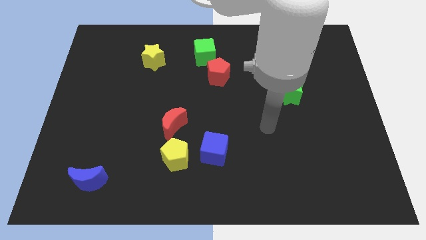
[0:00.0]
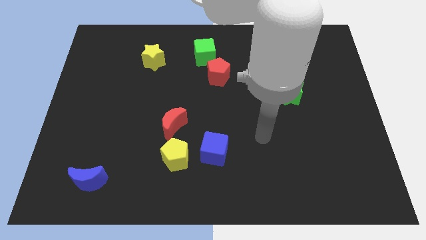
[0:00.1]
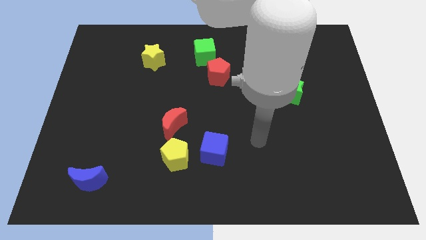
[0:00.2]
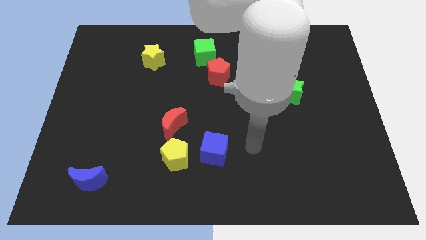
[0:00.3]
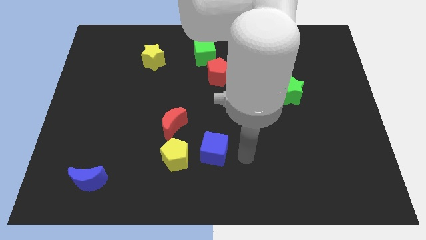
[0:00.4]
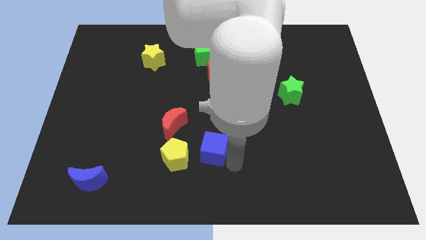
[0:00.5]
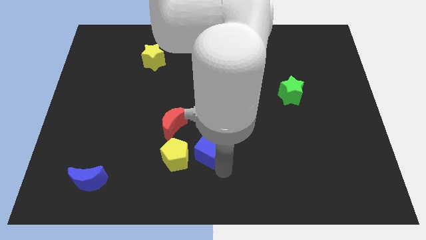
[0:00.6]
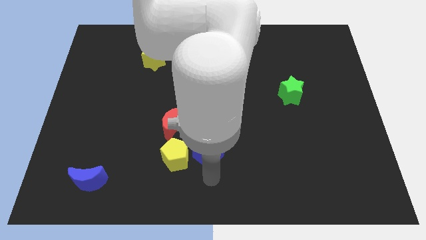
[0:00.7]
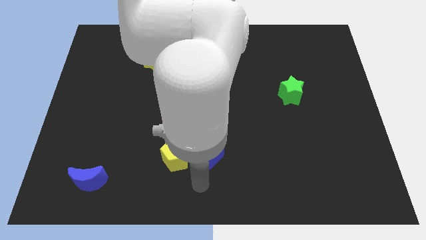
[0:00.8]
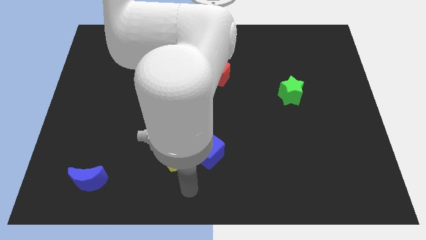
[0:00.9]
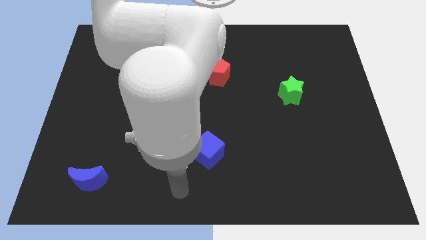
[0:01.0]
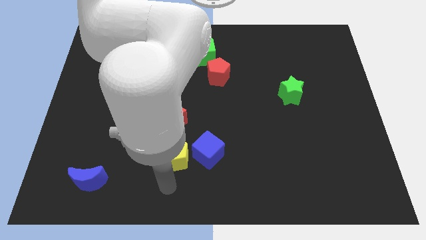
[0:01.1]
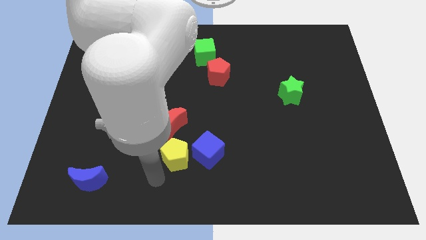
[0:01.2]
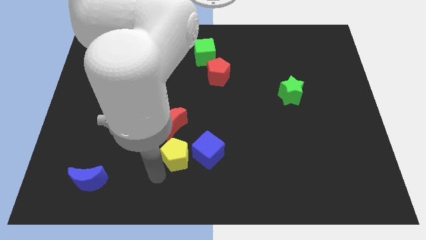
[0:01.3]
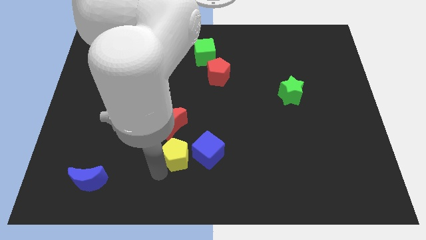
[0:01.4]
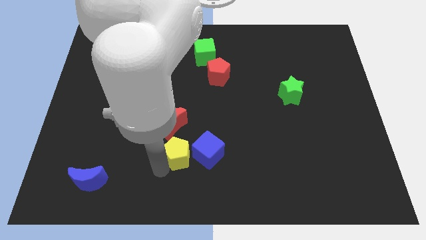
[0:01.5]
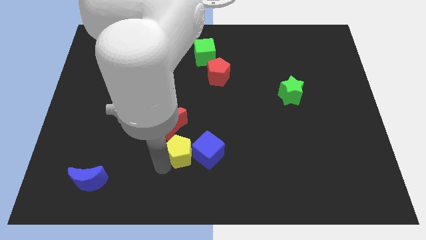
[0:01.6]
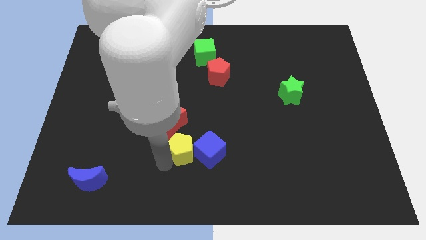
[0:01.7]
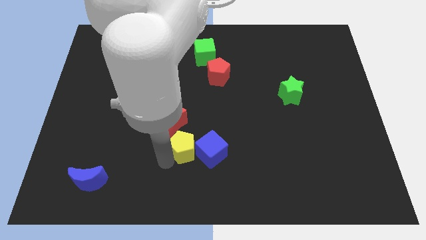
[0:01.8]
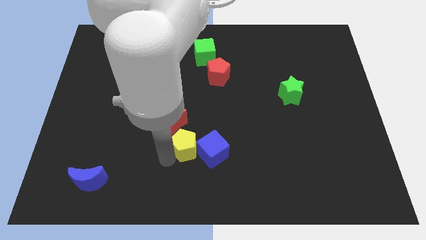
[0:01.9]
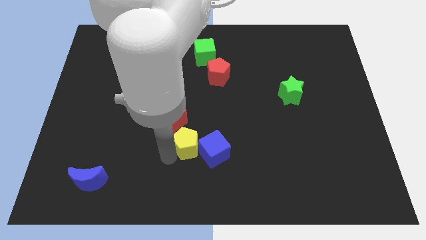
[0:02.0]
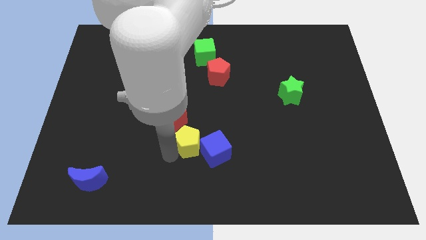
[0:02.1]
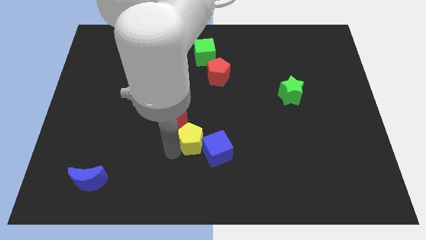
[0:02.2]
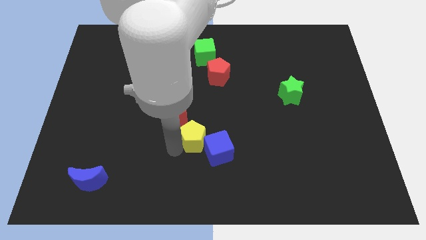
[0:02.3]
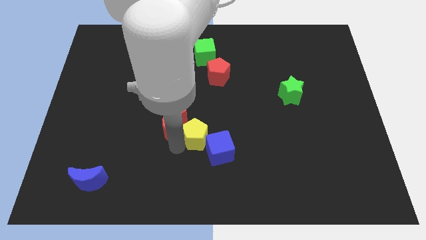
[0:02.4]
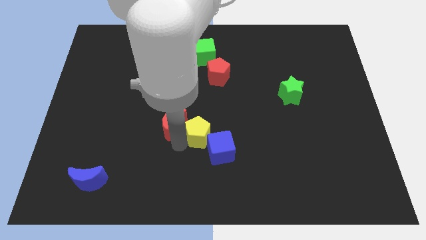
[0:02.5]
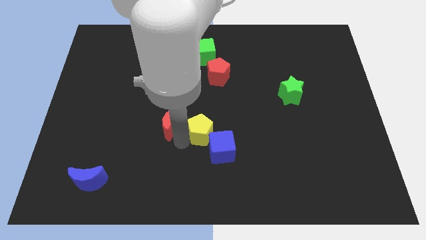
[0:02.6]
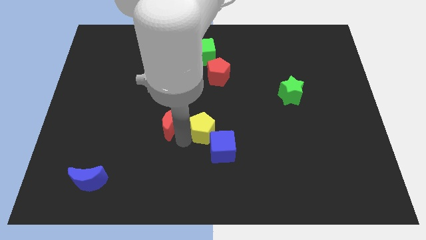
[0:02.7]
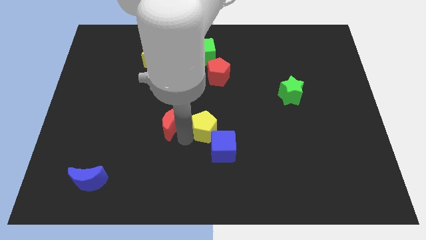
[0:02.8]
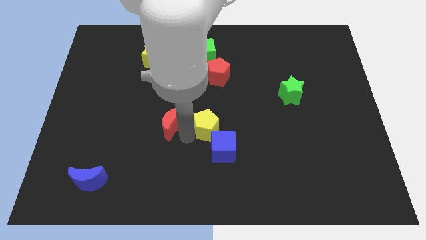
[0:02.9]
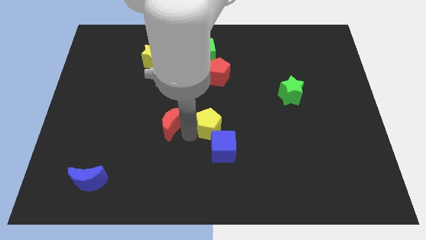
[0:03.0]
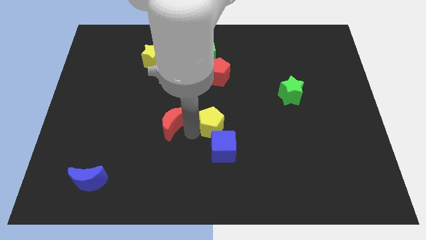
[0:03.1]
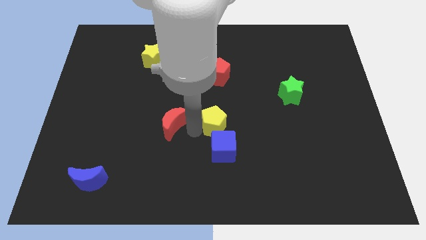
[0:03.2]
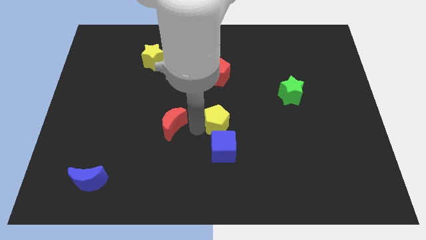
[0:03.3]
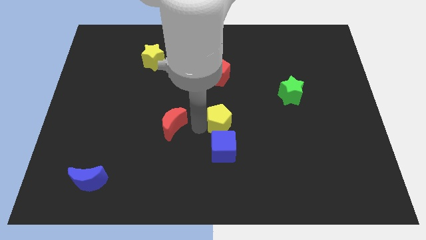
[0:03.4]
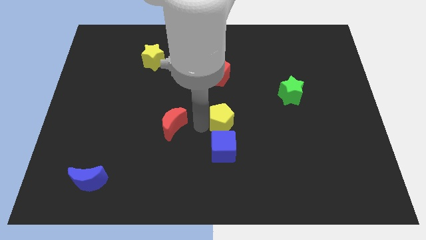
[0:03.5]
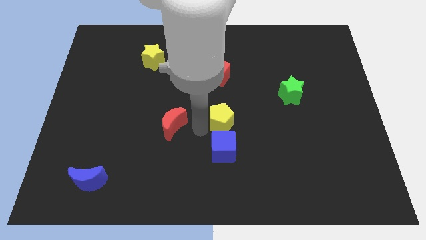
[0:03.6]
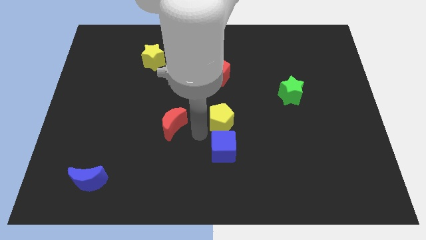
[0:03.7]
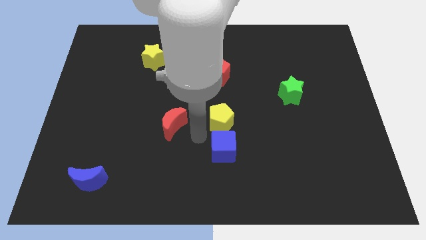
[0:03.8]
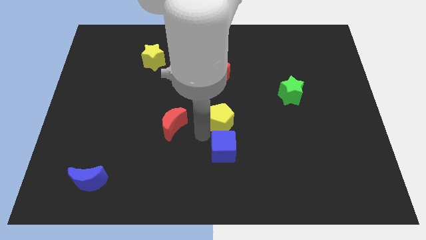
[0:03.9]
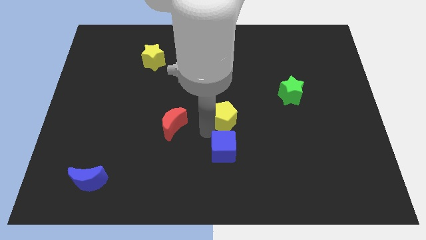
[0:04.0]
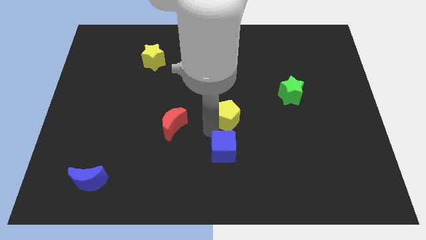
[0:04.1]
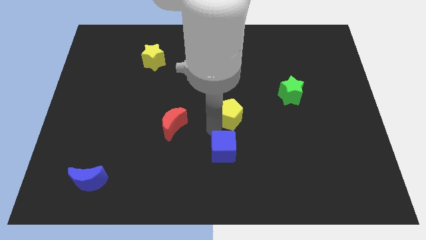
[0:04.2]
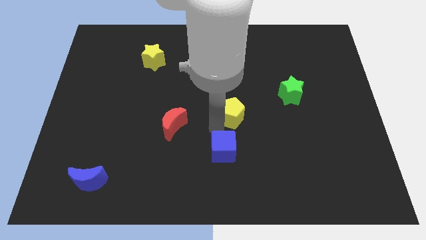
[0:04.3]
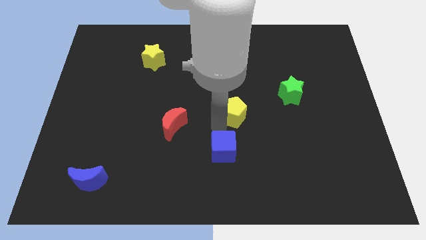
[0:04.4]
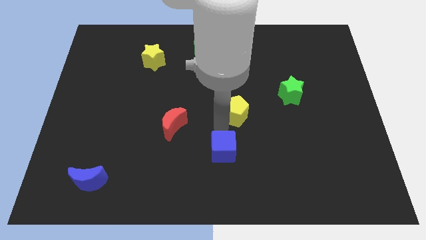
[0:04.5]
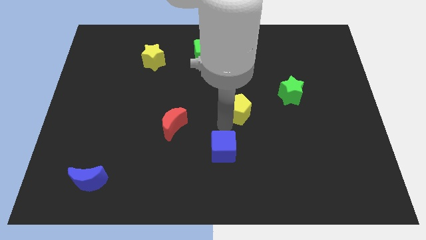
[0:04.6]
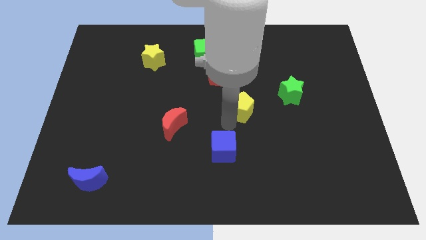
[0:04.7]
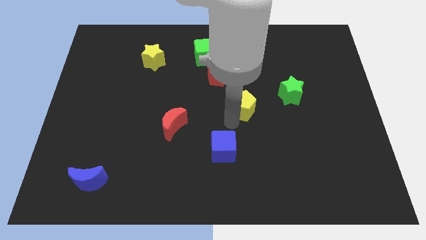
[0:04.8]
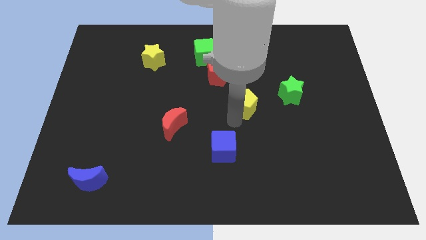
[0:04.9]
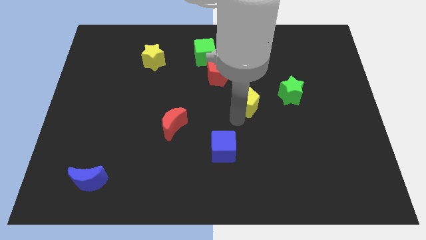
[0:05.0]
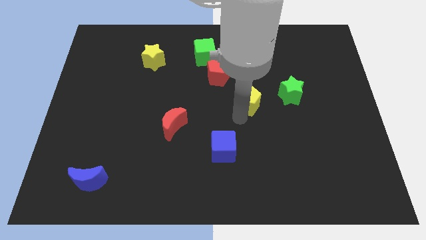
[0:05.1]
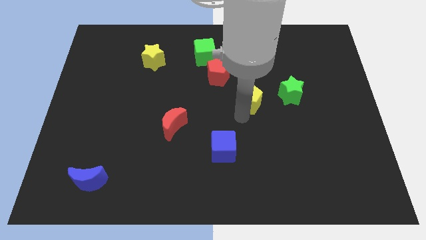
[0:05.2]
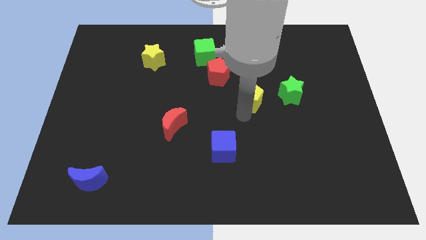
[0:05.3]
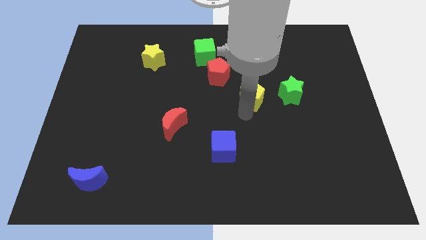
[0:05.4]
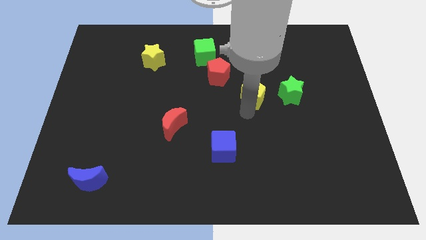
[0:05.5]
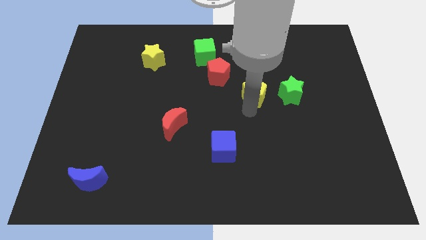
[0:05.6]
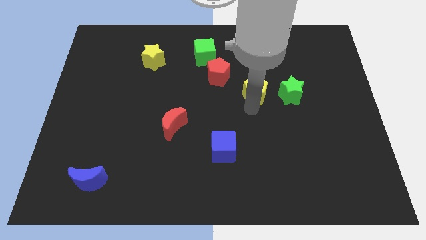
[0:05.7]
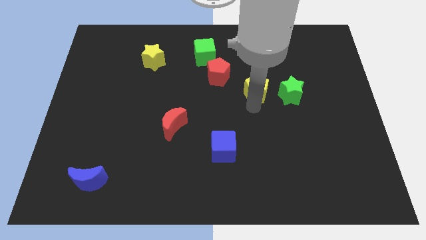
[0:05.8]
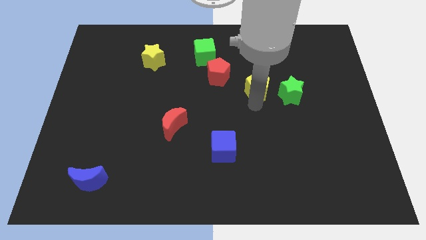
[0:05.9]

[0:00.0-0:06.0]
put the yellow pentagon just right of the red pentagon

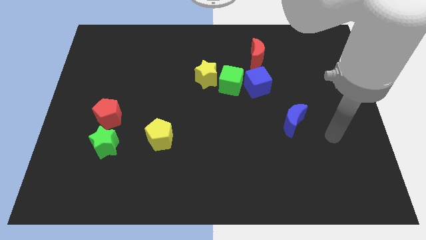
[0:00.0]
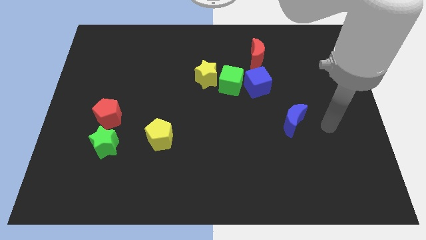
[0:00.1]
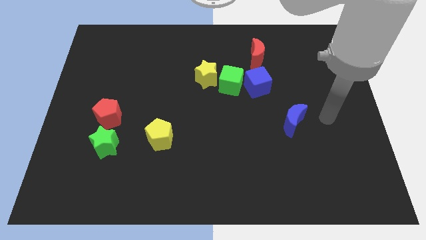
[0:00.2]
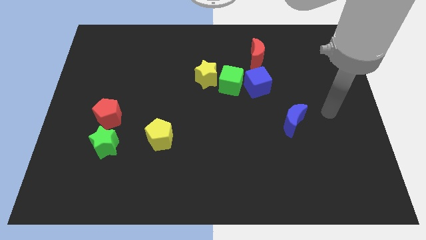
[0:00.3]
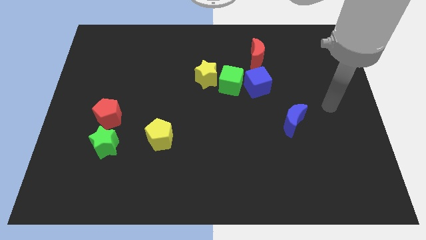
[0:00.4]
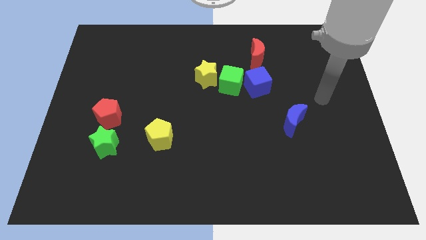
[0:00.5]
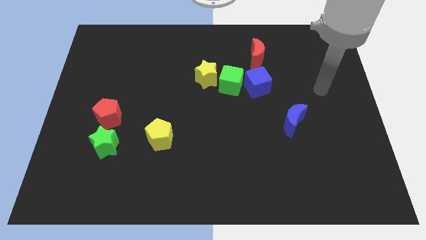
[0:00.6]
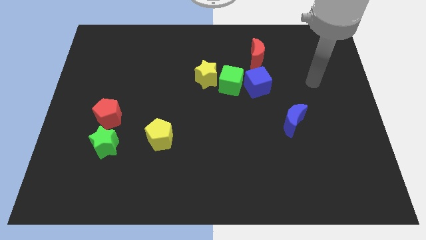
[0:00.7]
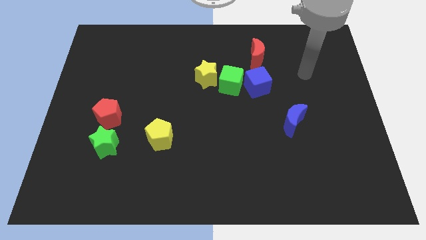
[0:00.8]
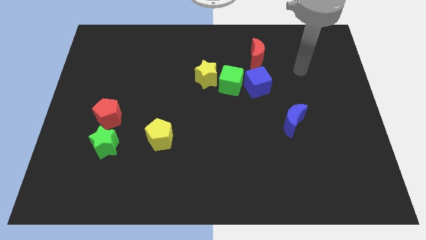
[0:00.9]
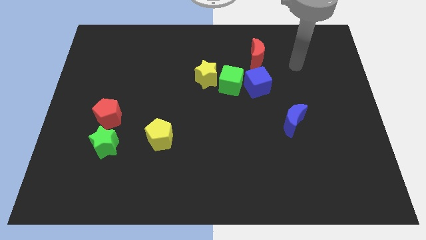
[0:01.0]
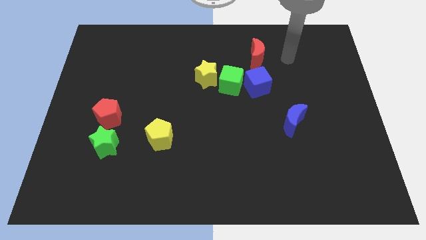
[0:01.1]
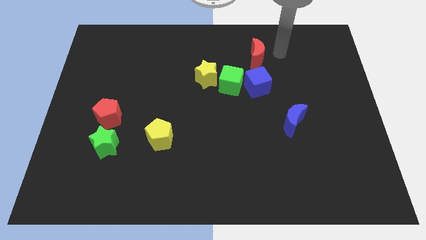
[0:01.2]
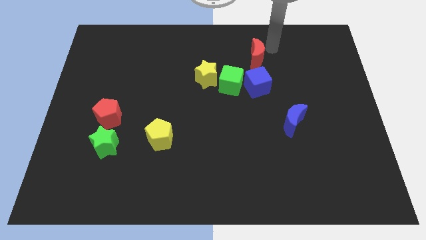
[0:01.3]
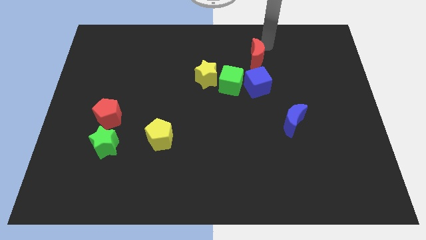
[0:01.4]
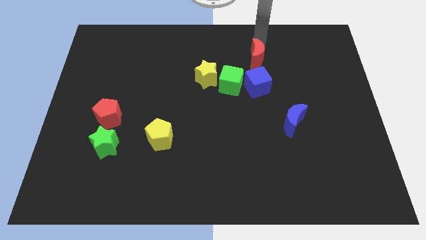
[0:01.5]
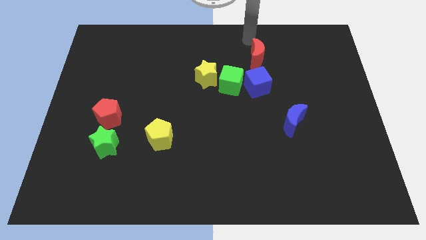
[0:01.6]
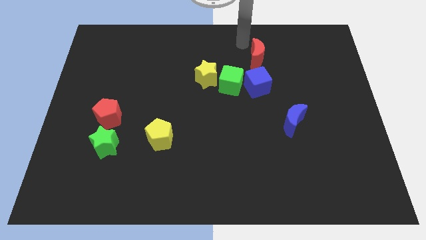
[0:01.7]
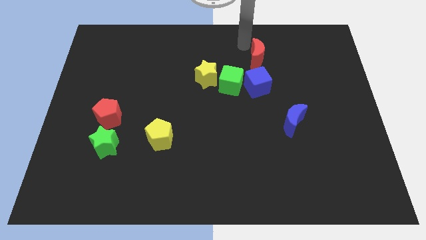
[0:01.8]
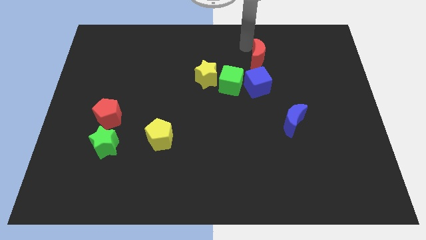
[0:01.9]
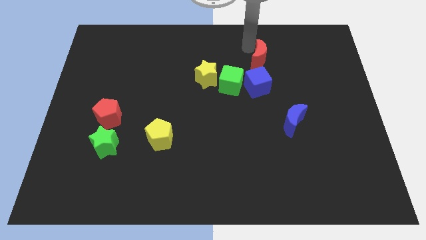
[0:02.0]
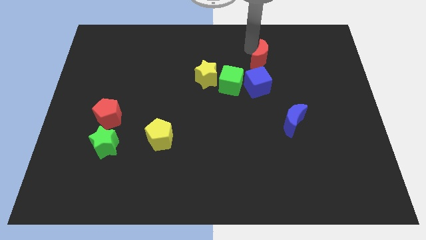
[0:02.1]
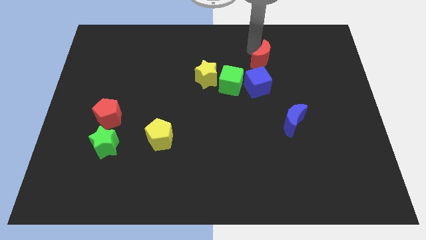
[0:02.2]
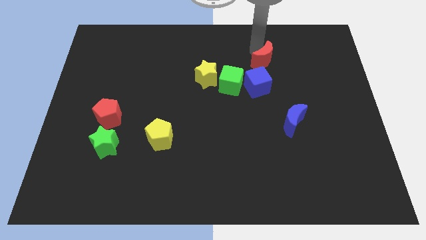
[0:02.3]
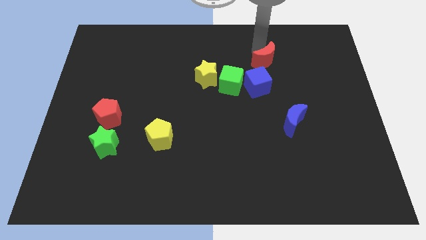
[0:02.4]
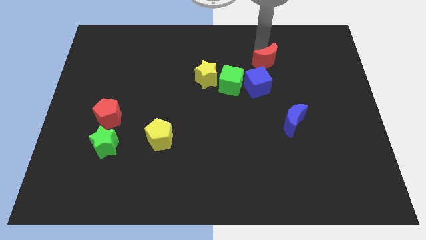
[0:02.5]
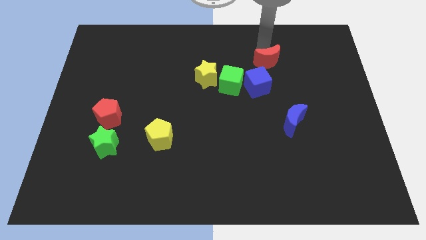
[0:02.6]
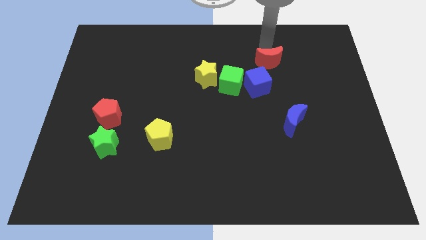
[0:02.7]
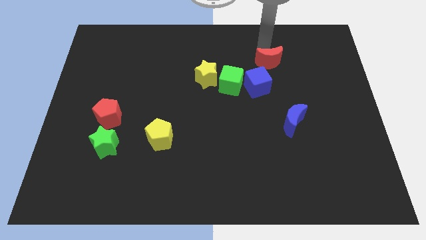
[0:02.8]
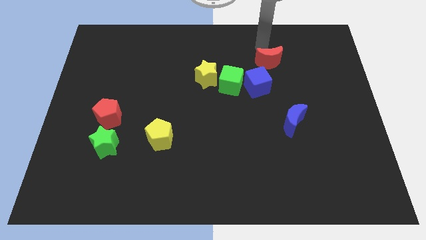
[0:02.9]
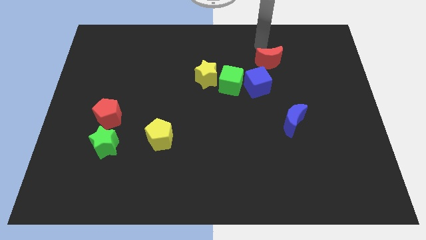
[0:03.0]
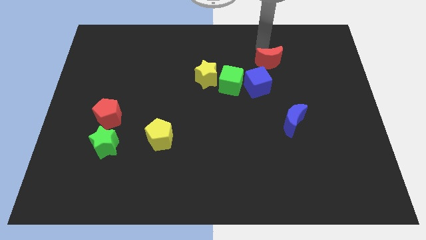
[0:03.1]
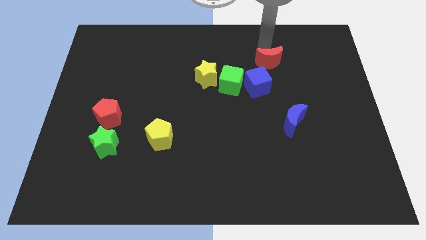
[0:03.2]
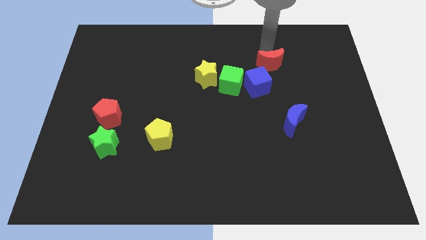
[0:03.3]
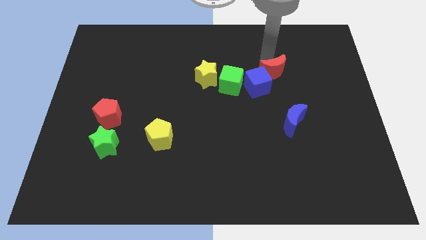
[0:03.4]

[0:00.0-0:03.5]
push the red moon to the right side of the blue cube
